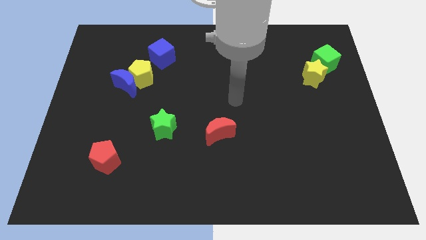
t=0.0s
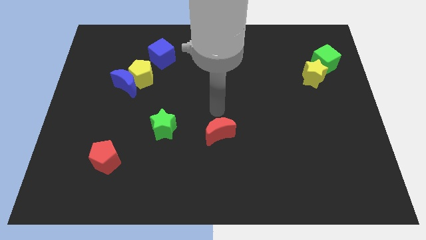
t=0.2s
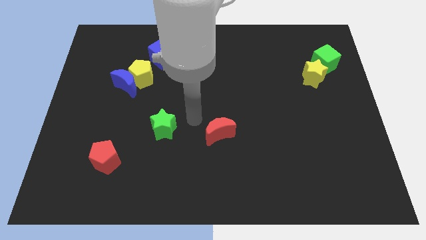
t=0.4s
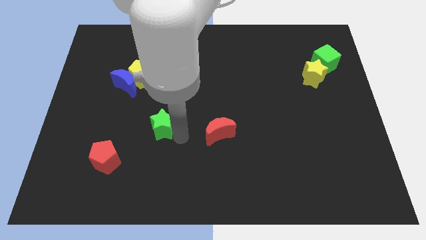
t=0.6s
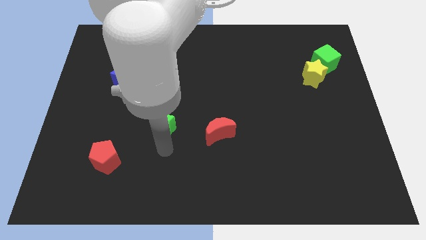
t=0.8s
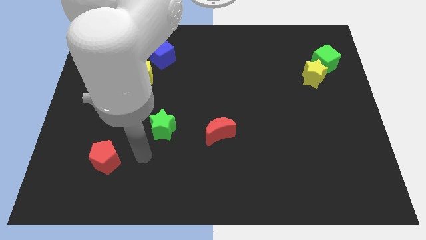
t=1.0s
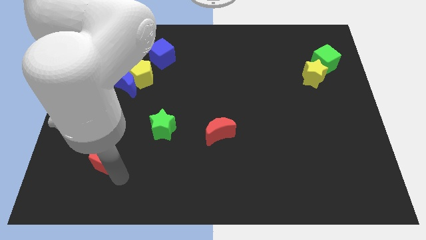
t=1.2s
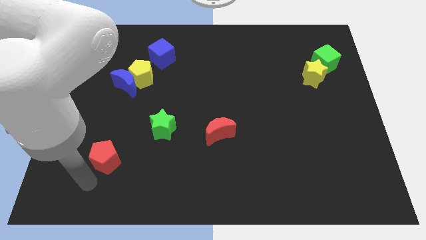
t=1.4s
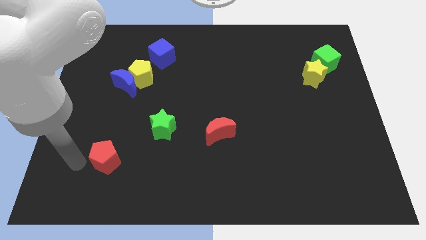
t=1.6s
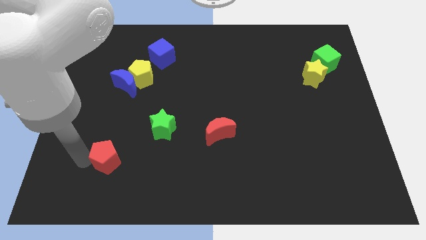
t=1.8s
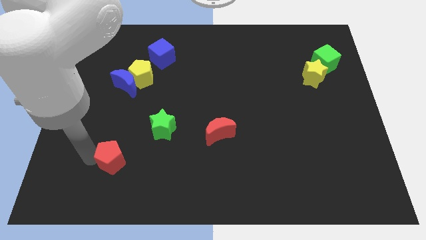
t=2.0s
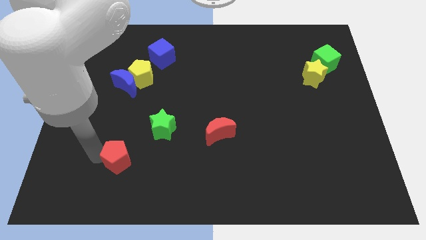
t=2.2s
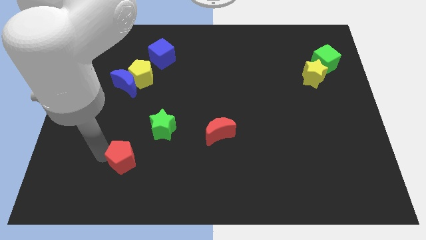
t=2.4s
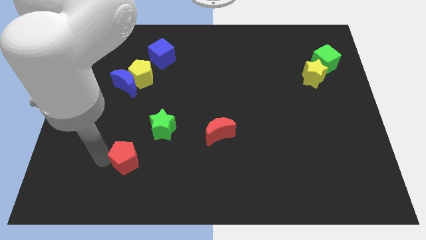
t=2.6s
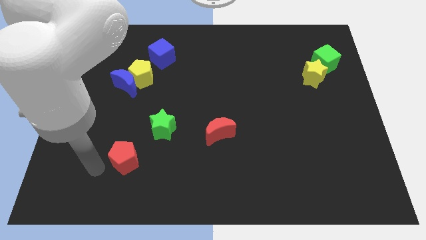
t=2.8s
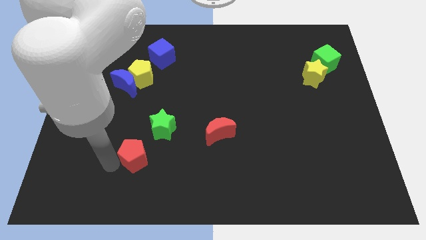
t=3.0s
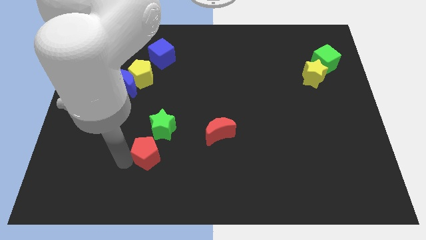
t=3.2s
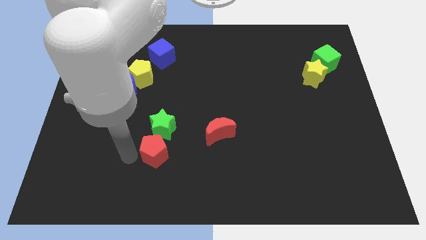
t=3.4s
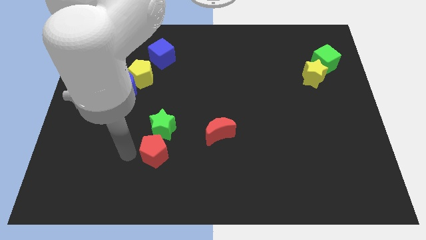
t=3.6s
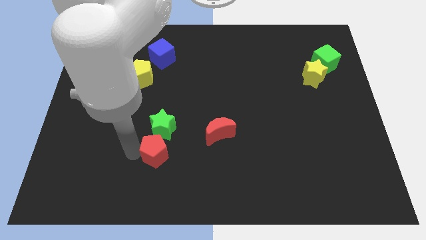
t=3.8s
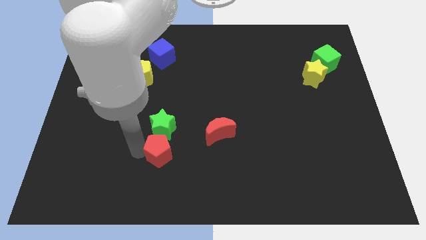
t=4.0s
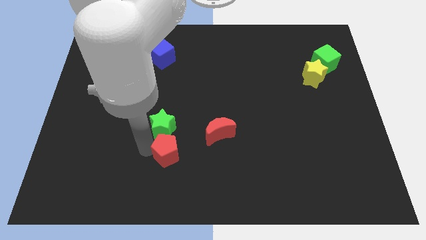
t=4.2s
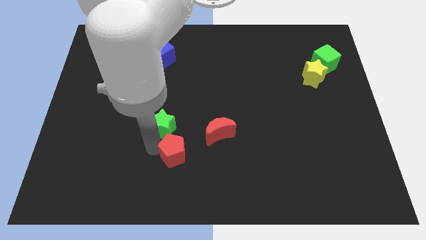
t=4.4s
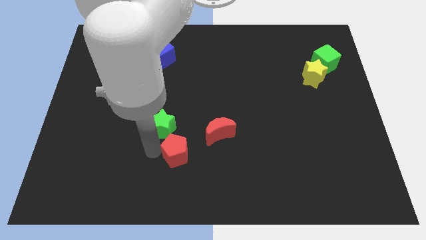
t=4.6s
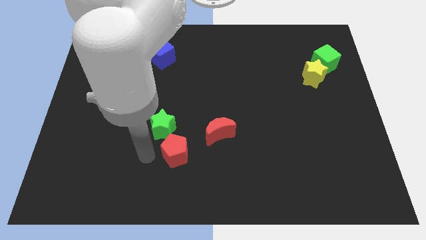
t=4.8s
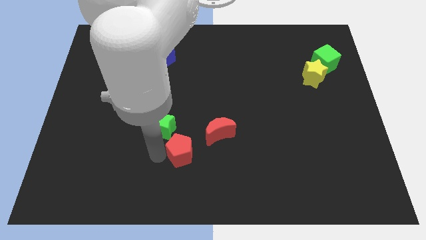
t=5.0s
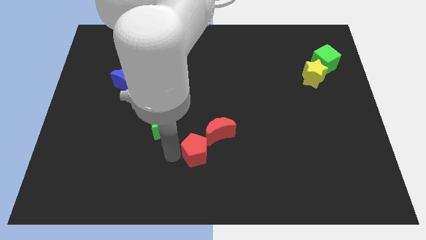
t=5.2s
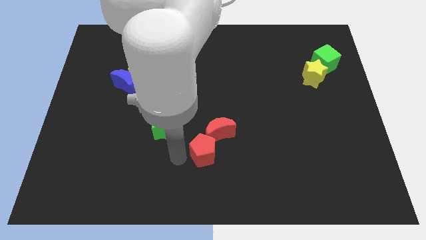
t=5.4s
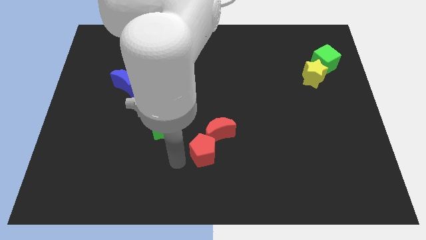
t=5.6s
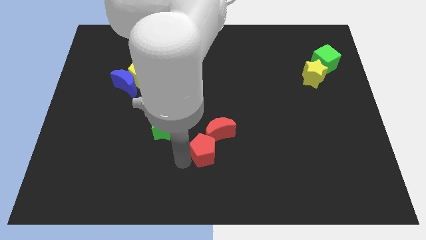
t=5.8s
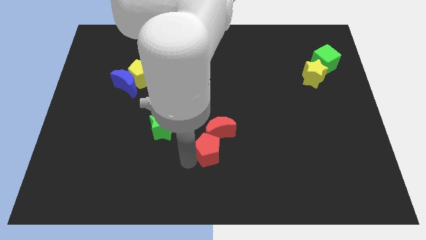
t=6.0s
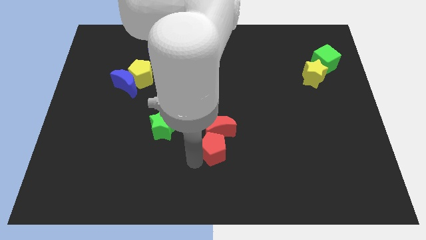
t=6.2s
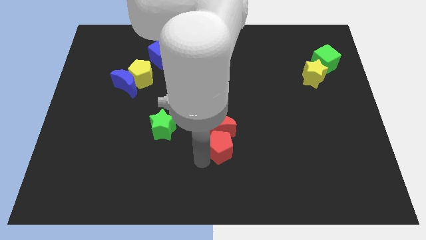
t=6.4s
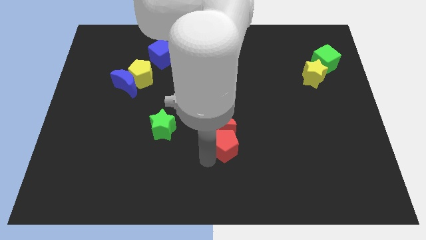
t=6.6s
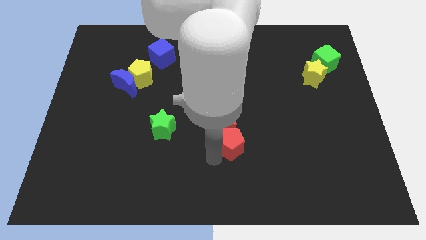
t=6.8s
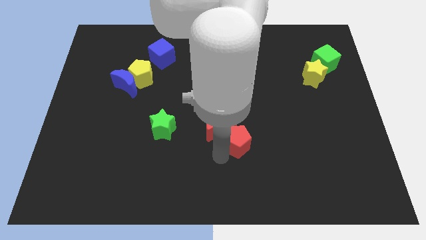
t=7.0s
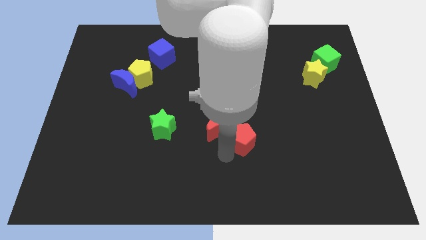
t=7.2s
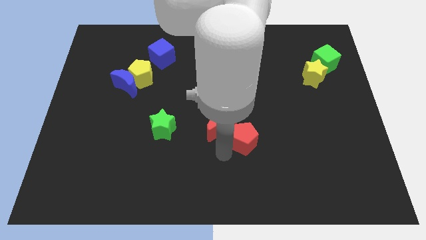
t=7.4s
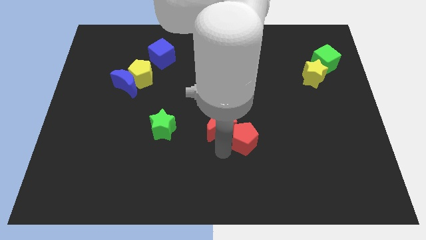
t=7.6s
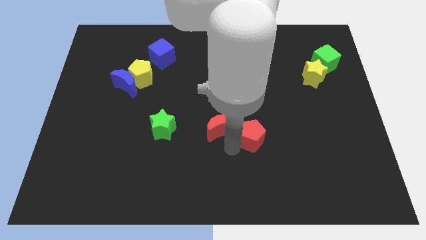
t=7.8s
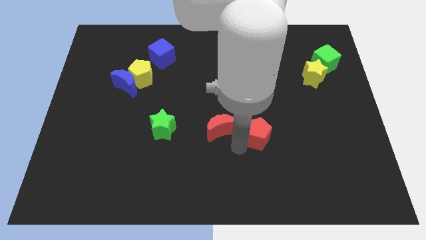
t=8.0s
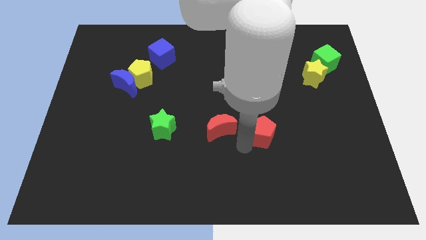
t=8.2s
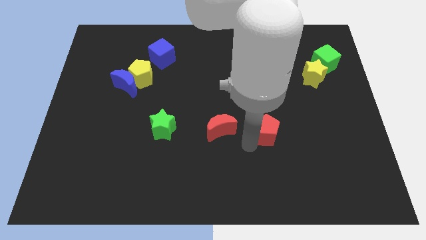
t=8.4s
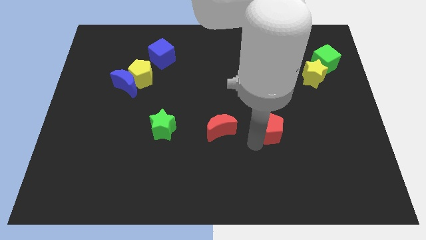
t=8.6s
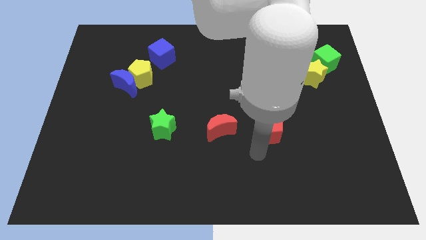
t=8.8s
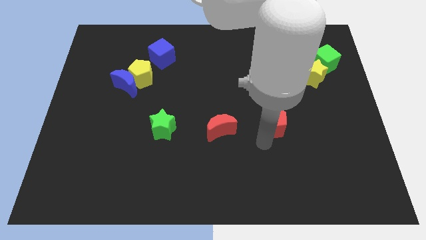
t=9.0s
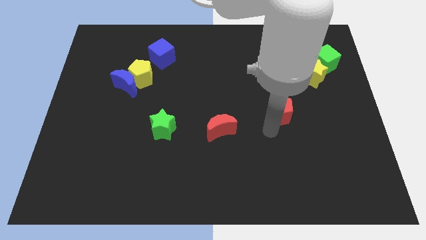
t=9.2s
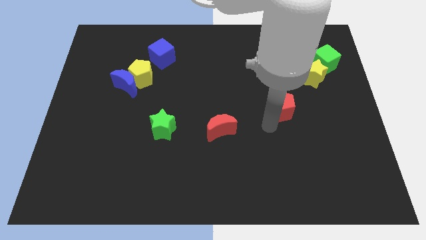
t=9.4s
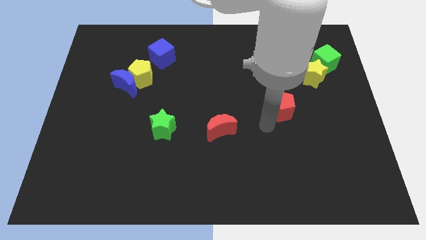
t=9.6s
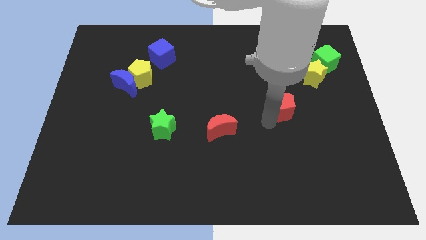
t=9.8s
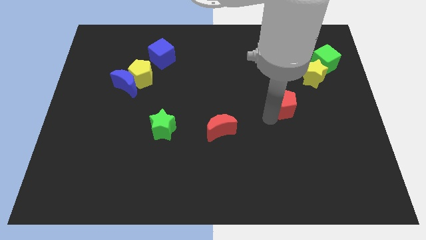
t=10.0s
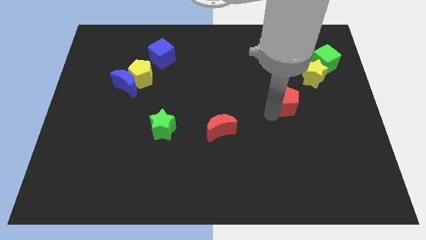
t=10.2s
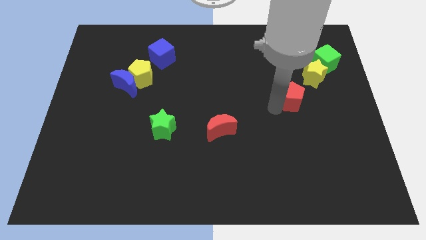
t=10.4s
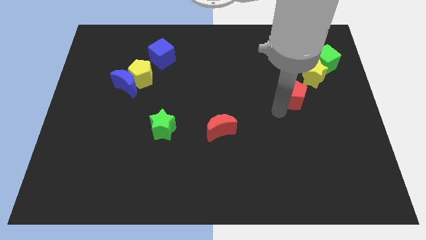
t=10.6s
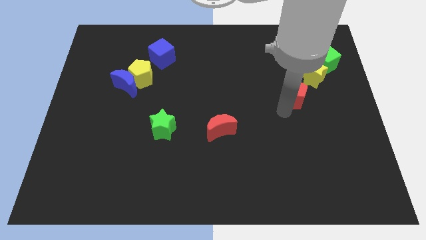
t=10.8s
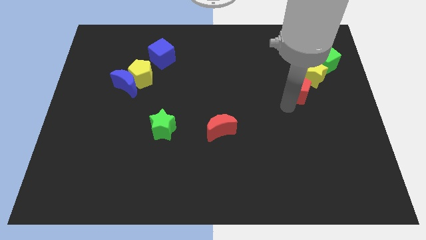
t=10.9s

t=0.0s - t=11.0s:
slide the red pentagon to the bottom left side of the green cube

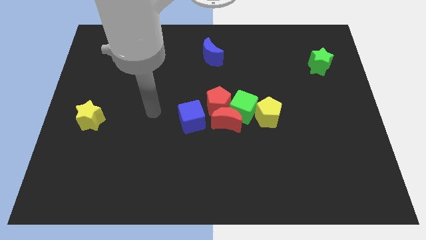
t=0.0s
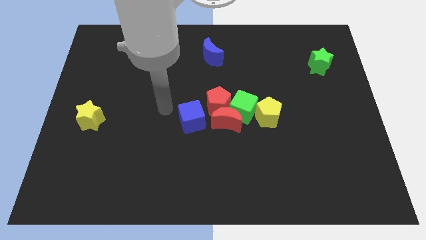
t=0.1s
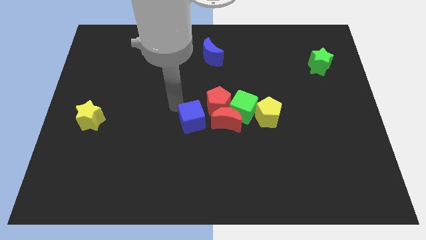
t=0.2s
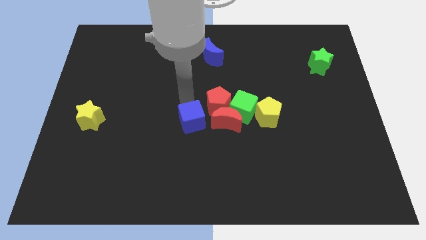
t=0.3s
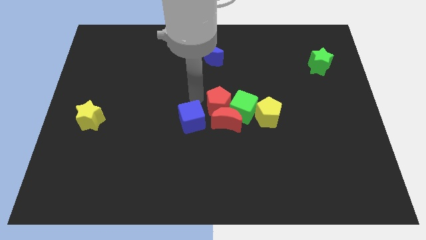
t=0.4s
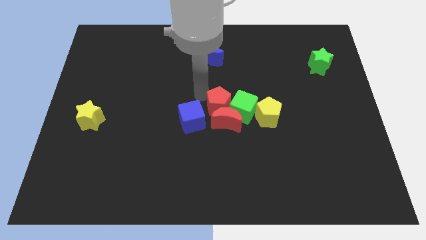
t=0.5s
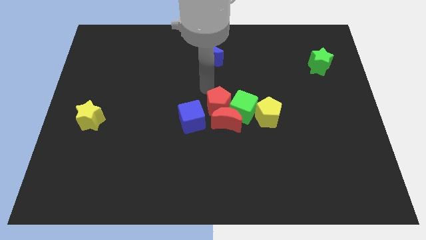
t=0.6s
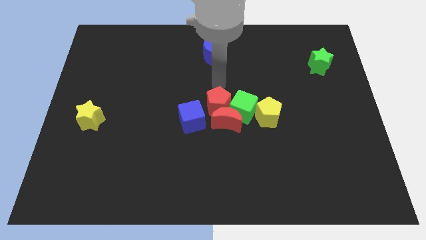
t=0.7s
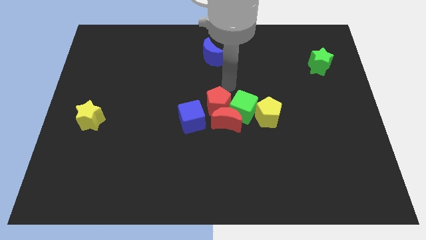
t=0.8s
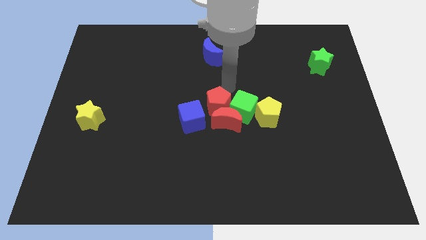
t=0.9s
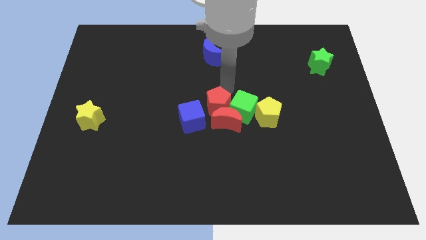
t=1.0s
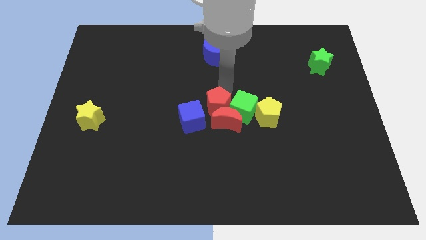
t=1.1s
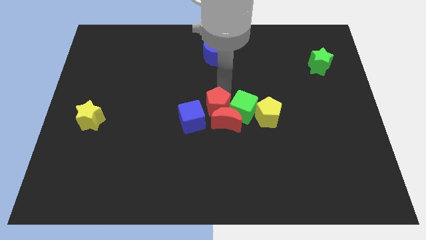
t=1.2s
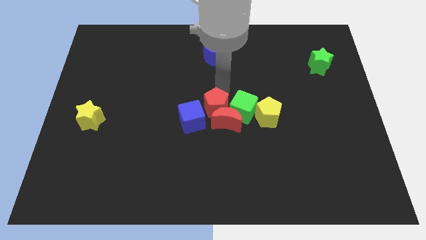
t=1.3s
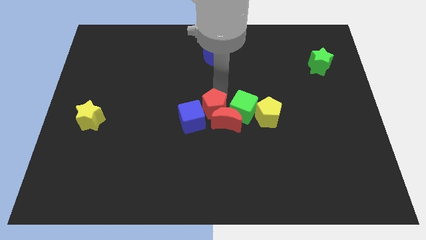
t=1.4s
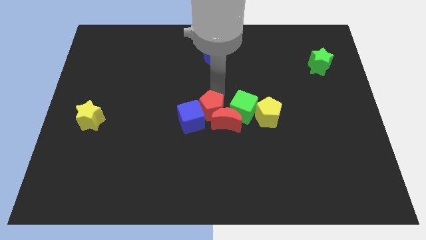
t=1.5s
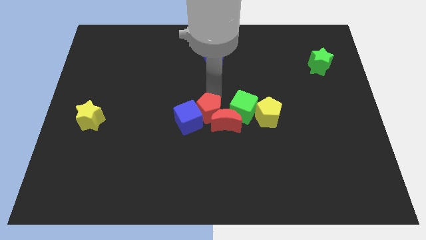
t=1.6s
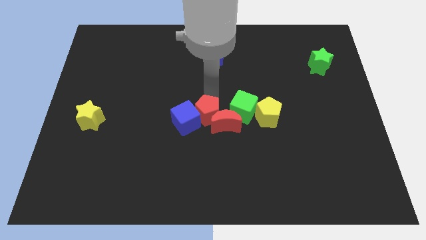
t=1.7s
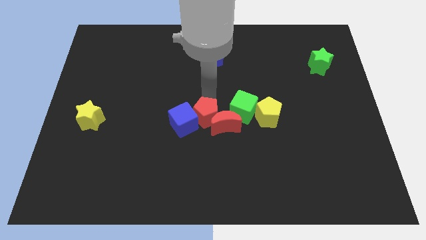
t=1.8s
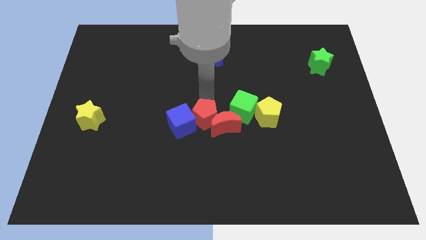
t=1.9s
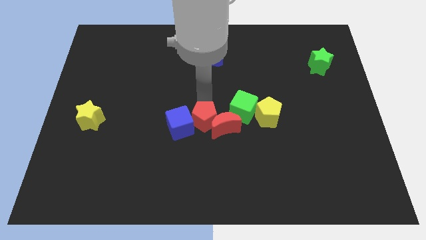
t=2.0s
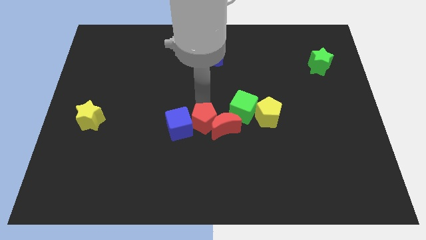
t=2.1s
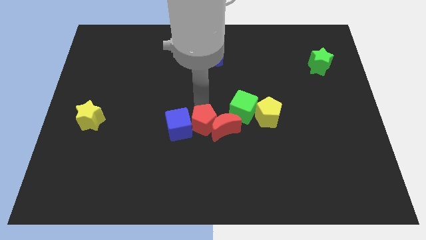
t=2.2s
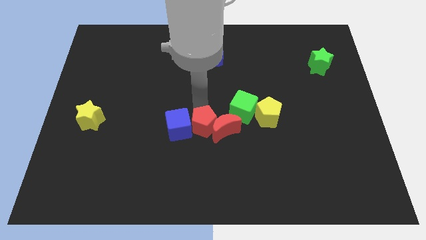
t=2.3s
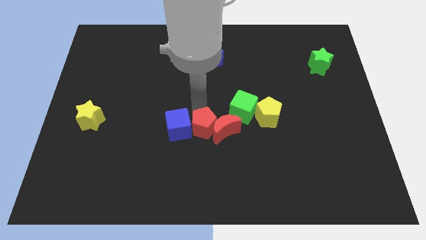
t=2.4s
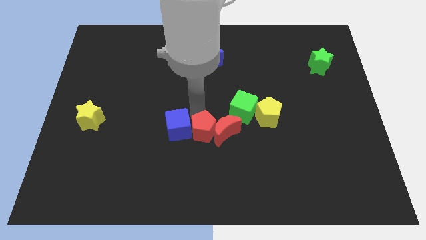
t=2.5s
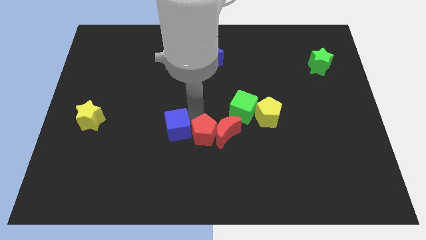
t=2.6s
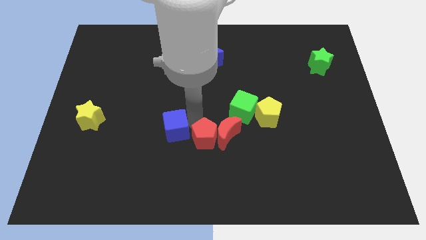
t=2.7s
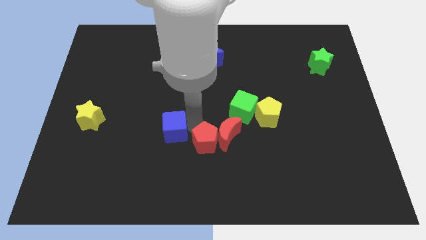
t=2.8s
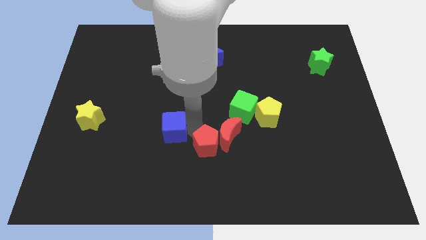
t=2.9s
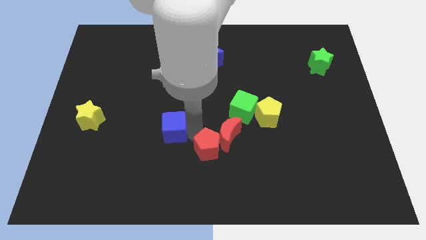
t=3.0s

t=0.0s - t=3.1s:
put the red pentagon to the bottom of the red moon
